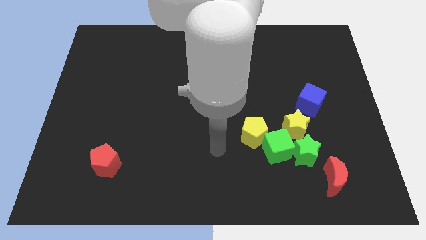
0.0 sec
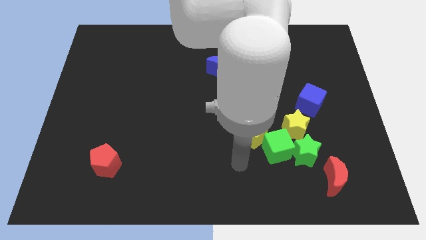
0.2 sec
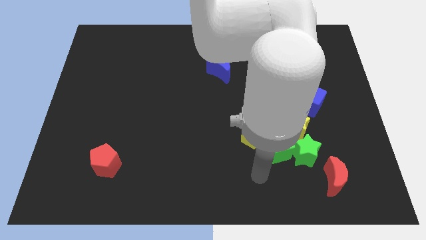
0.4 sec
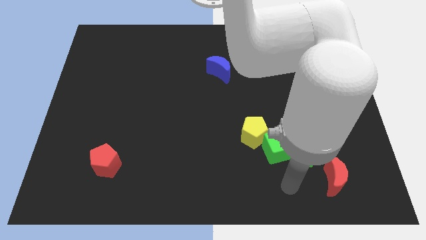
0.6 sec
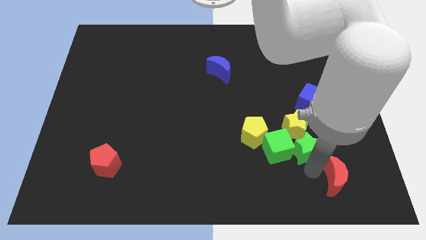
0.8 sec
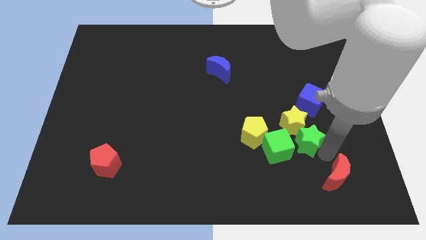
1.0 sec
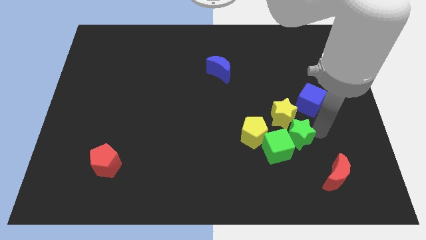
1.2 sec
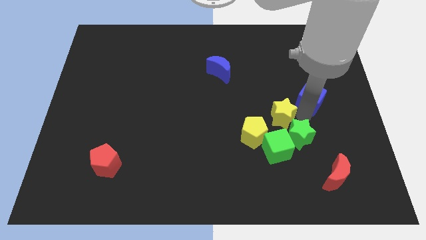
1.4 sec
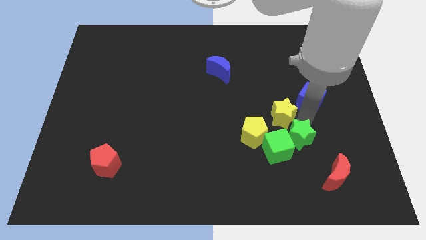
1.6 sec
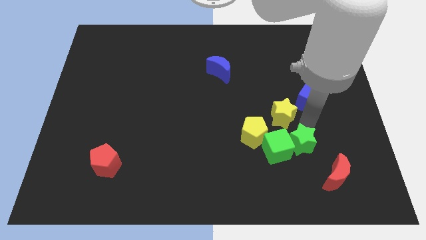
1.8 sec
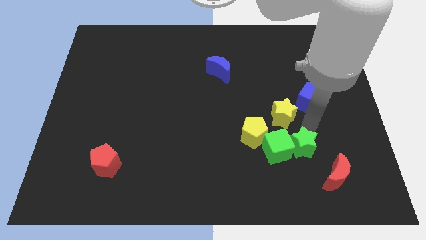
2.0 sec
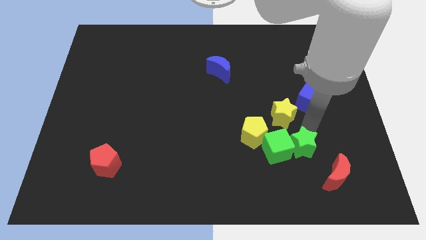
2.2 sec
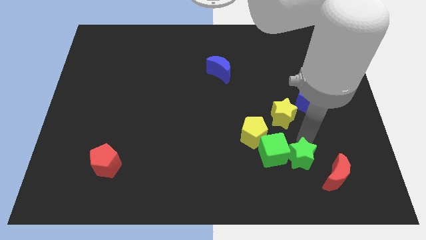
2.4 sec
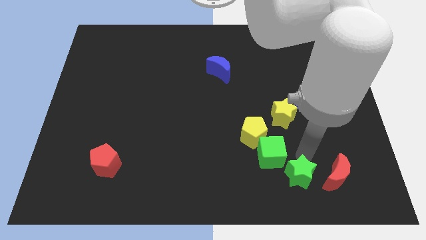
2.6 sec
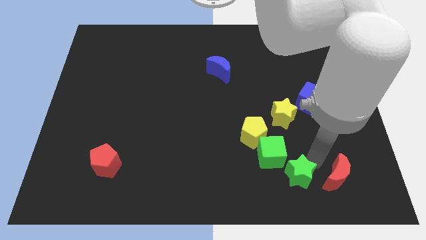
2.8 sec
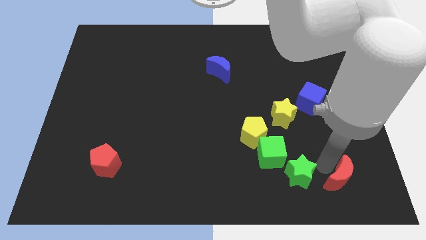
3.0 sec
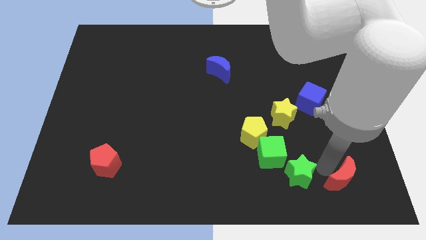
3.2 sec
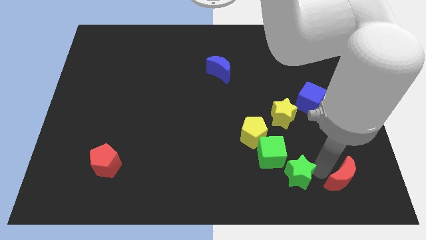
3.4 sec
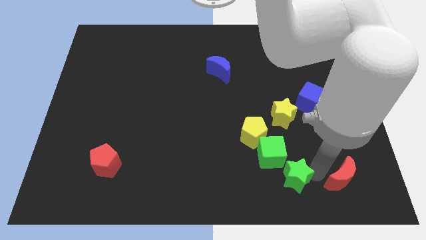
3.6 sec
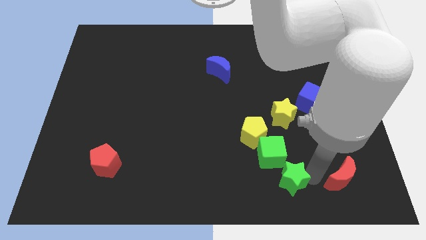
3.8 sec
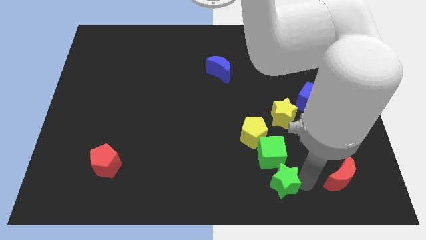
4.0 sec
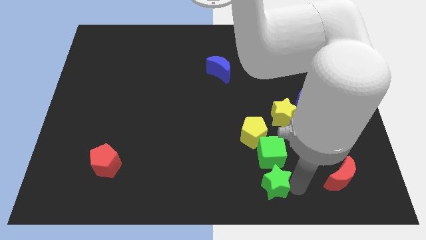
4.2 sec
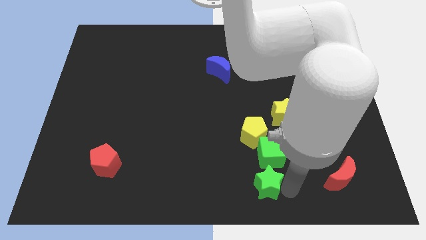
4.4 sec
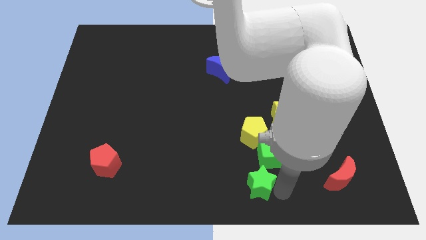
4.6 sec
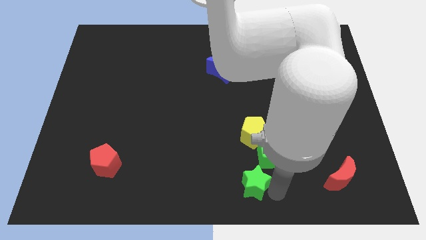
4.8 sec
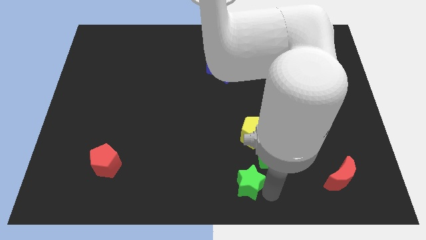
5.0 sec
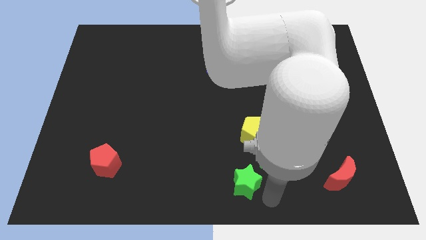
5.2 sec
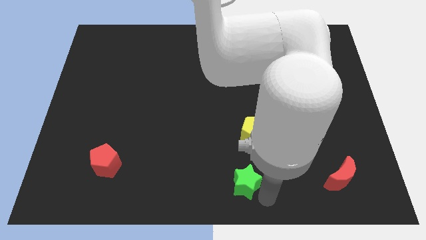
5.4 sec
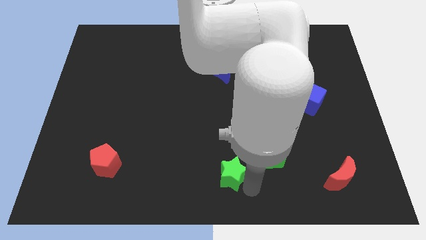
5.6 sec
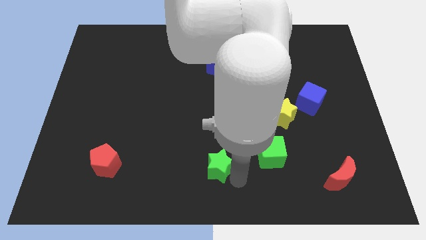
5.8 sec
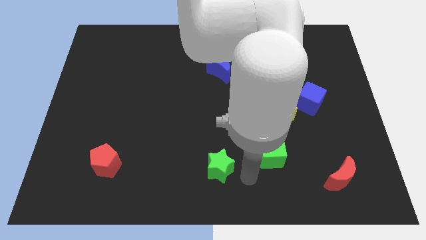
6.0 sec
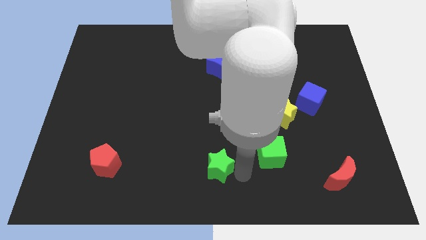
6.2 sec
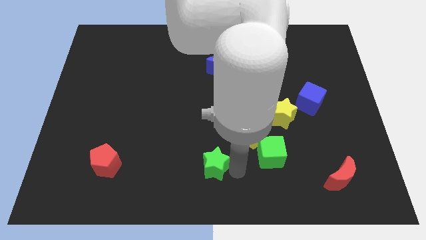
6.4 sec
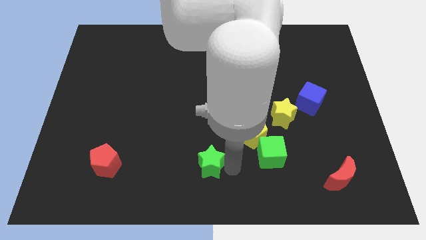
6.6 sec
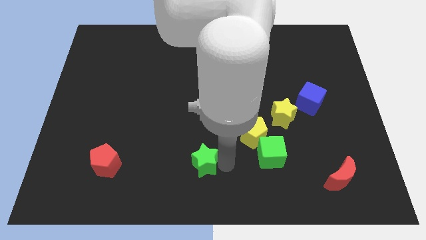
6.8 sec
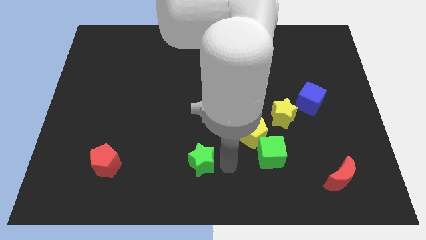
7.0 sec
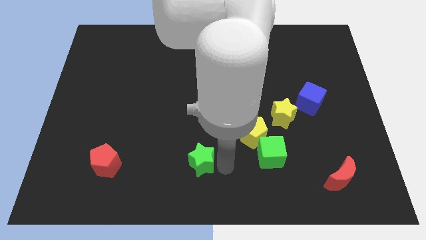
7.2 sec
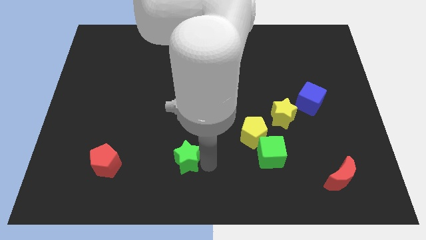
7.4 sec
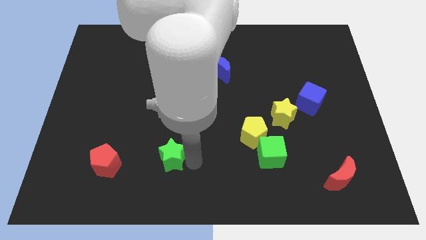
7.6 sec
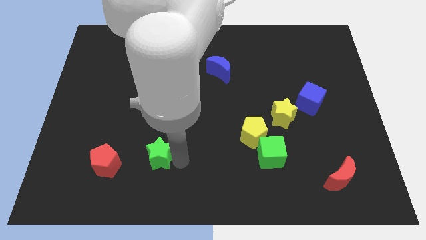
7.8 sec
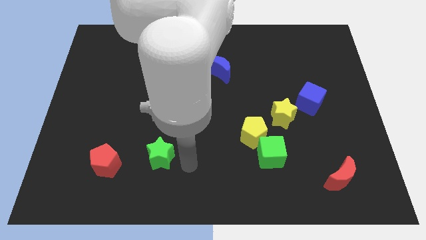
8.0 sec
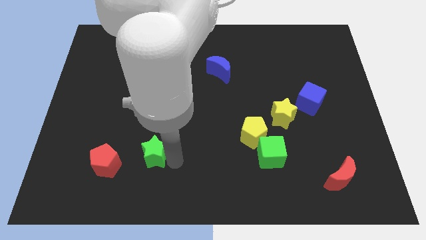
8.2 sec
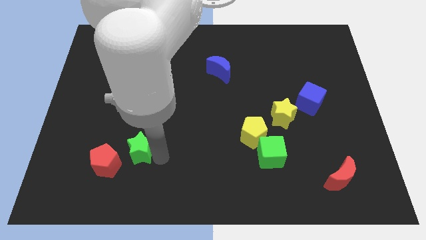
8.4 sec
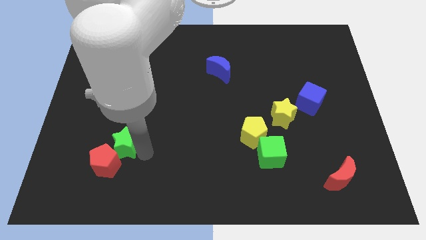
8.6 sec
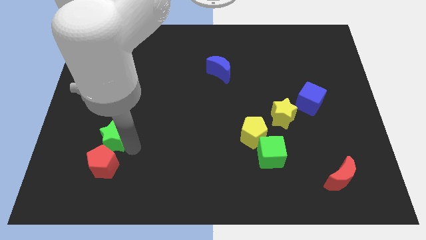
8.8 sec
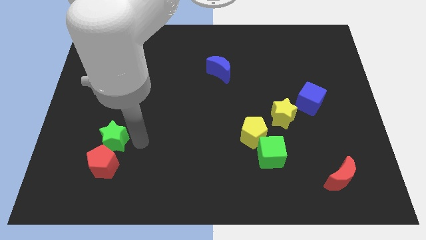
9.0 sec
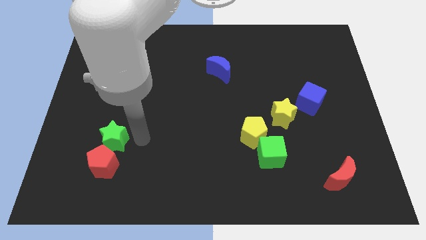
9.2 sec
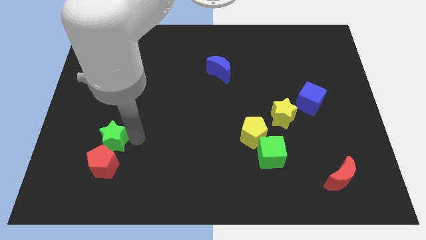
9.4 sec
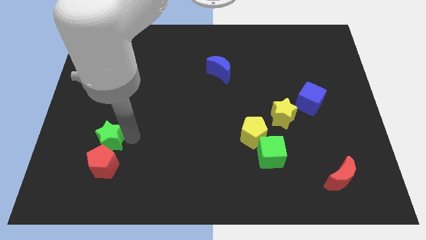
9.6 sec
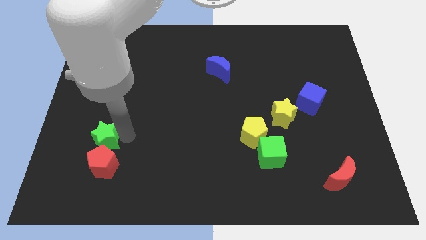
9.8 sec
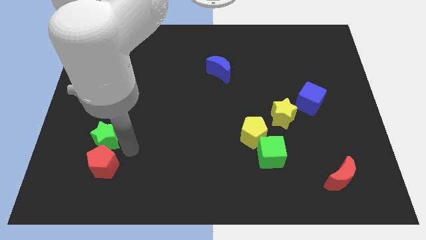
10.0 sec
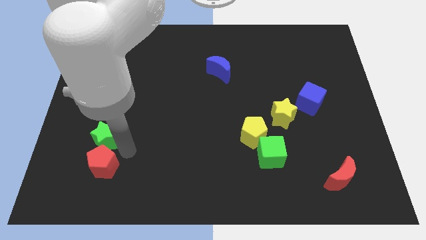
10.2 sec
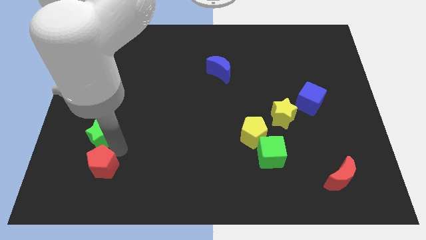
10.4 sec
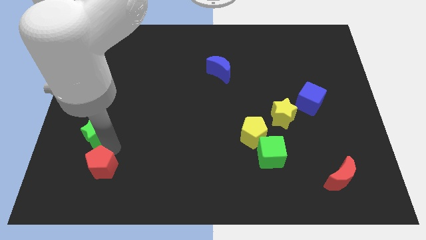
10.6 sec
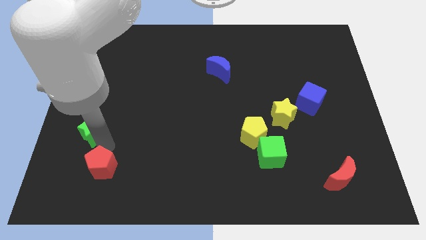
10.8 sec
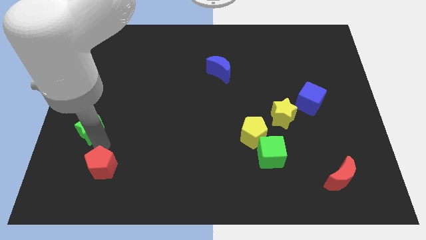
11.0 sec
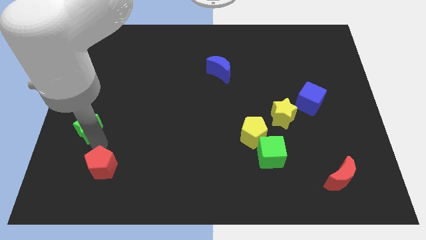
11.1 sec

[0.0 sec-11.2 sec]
move the green star to the left side

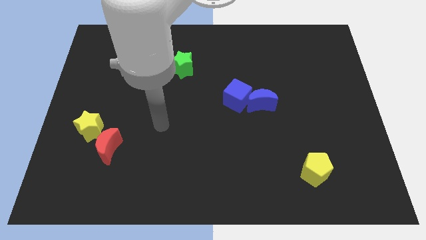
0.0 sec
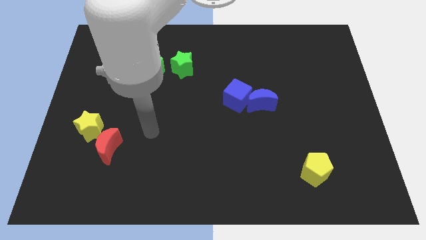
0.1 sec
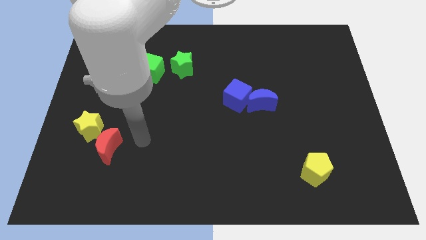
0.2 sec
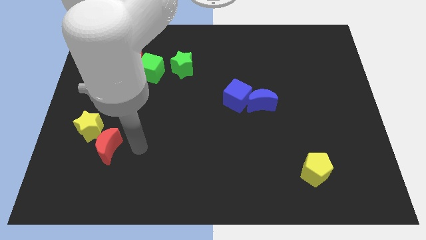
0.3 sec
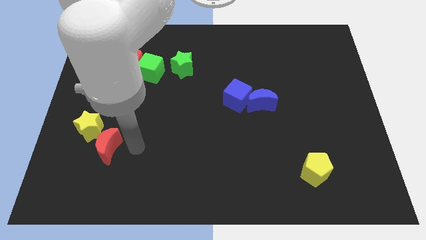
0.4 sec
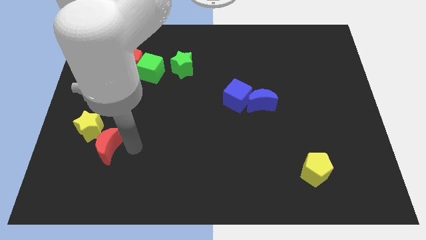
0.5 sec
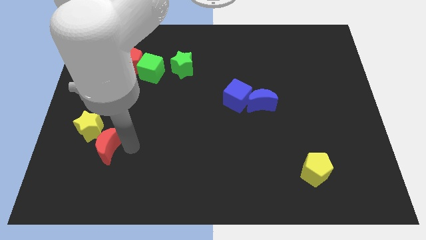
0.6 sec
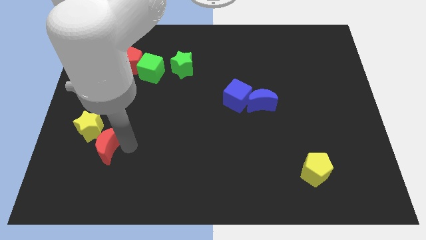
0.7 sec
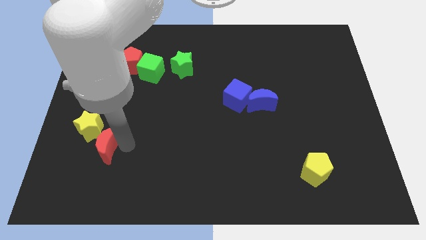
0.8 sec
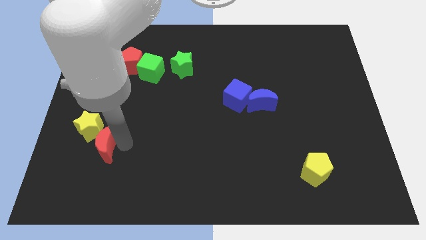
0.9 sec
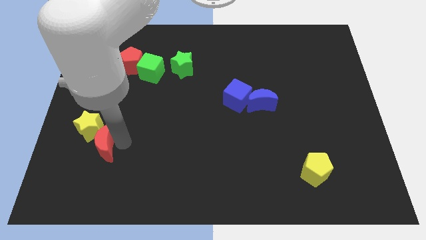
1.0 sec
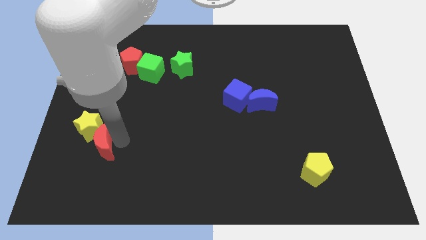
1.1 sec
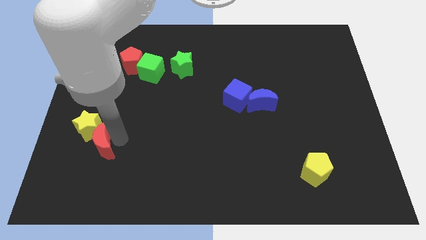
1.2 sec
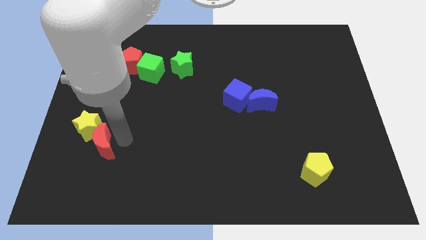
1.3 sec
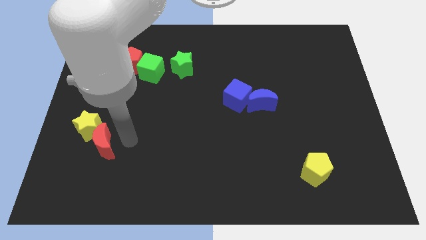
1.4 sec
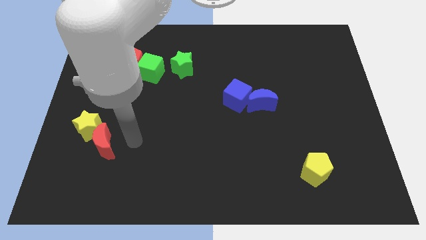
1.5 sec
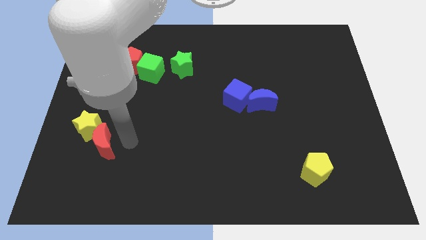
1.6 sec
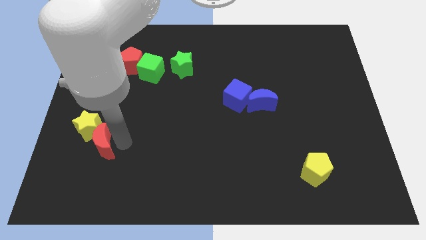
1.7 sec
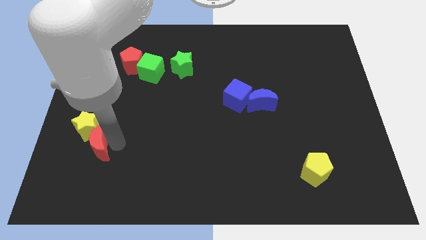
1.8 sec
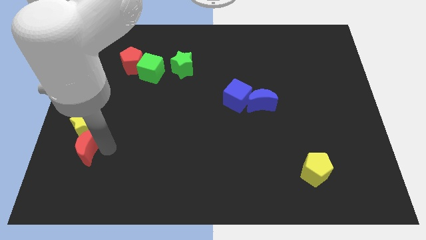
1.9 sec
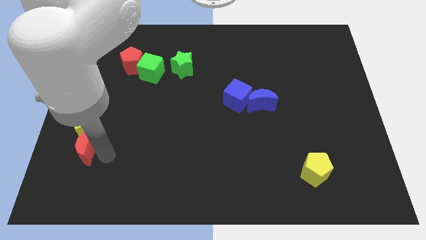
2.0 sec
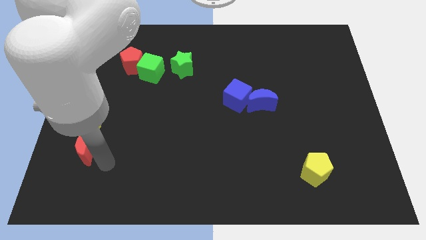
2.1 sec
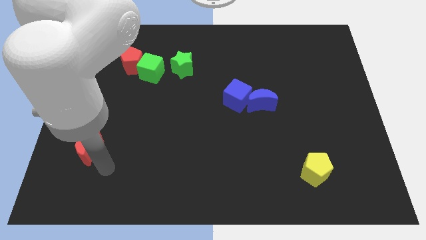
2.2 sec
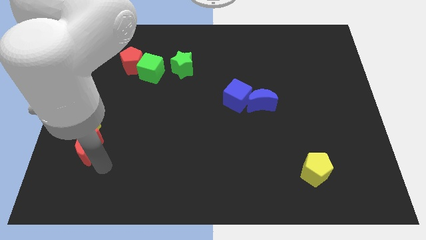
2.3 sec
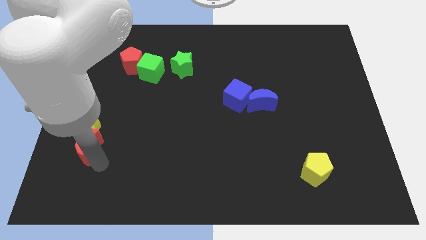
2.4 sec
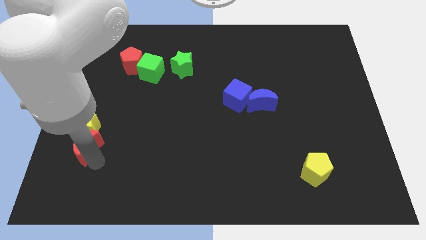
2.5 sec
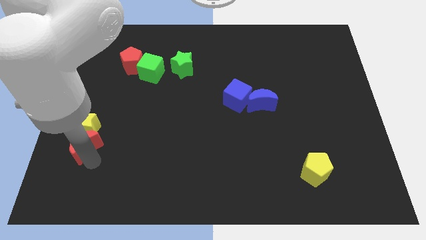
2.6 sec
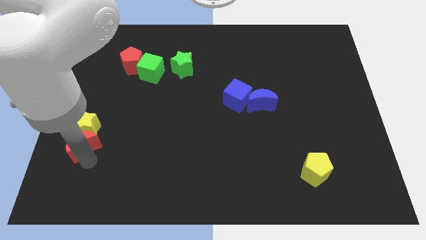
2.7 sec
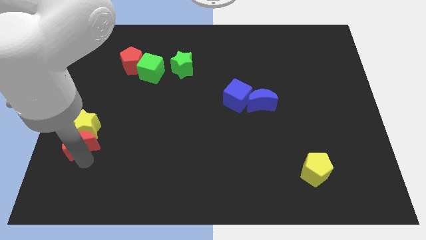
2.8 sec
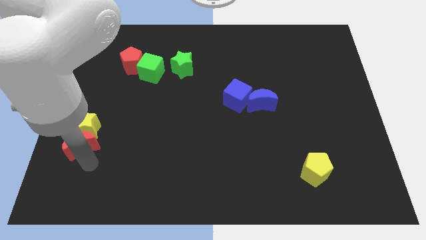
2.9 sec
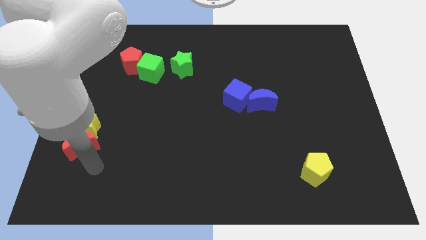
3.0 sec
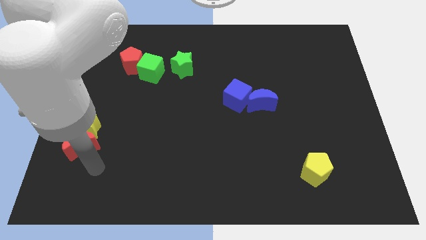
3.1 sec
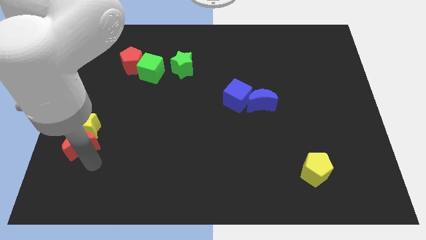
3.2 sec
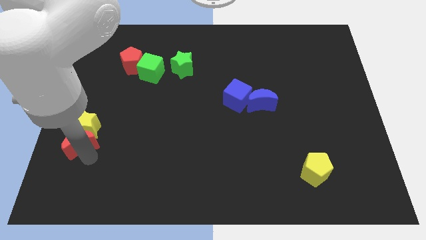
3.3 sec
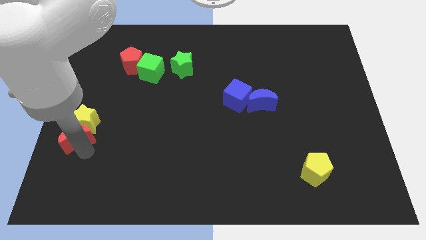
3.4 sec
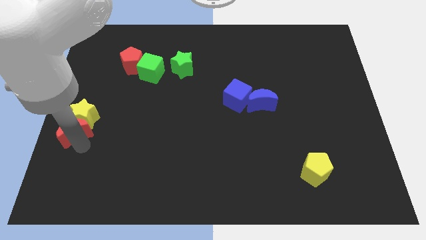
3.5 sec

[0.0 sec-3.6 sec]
push the red moon to the center left
